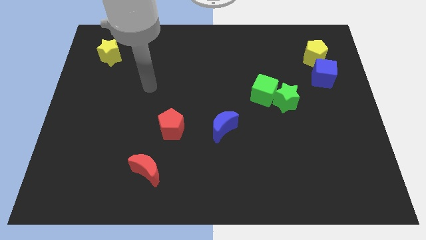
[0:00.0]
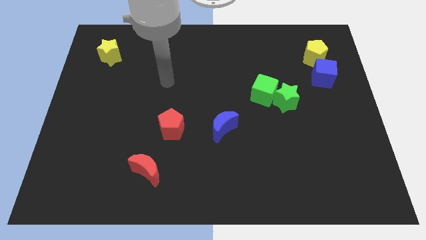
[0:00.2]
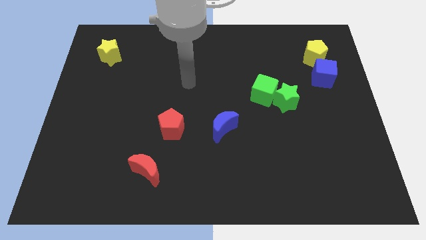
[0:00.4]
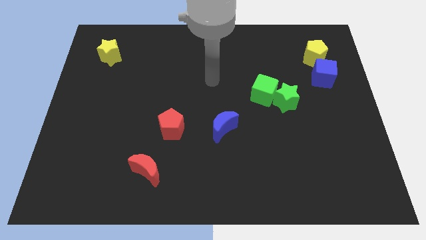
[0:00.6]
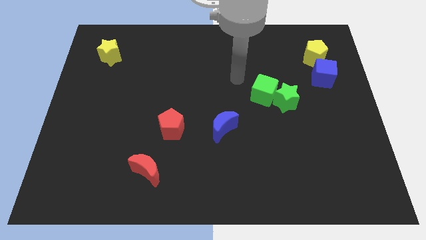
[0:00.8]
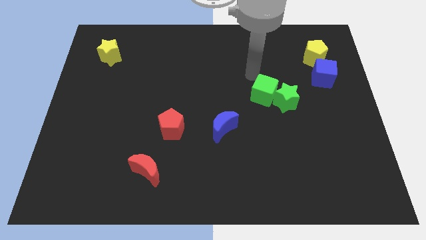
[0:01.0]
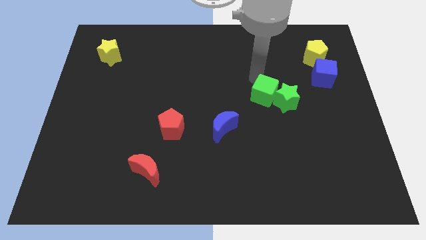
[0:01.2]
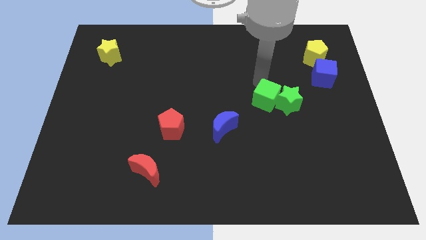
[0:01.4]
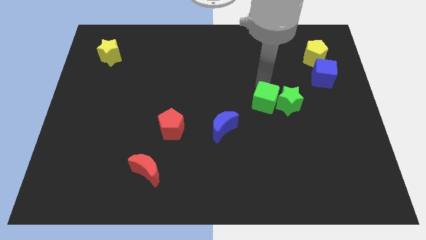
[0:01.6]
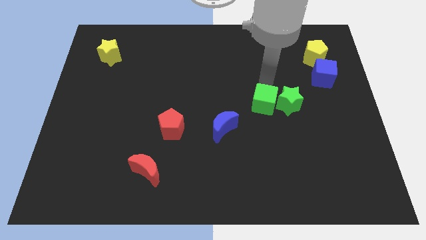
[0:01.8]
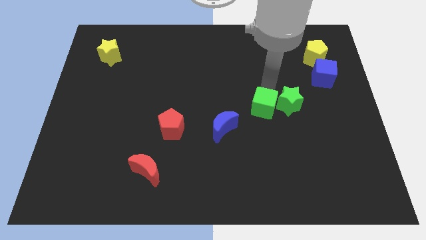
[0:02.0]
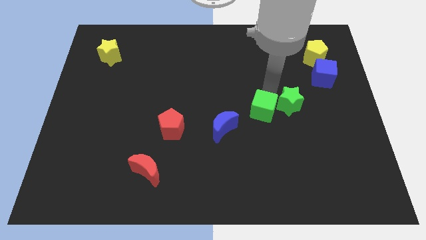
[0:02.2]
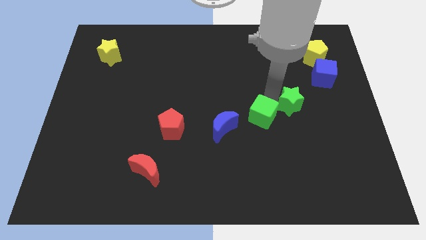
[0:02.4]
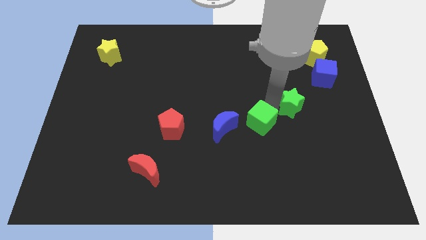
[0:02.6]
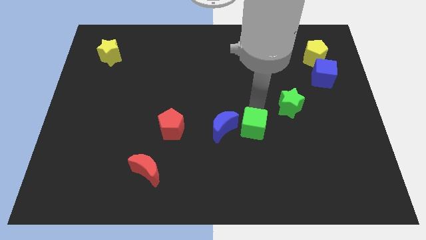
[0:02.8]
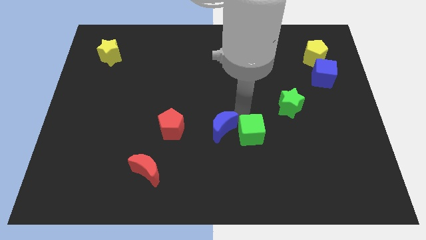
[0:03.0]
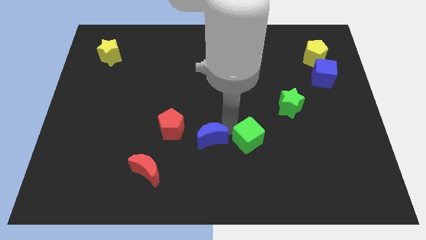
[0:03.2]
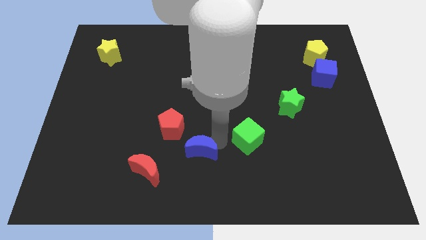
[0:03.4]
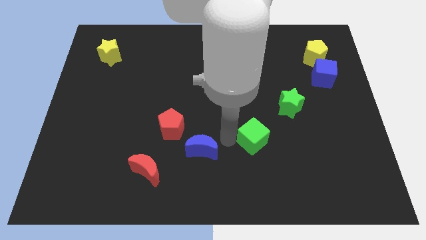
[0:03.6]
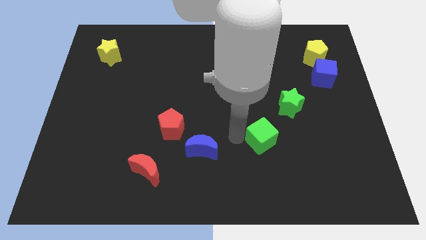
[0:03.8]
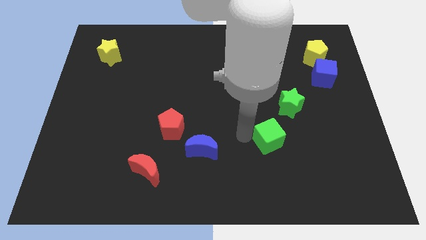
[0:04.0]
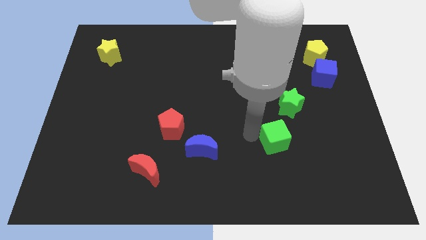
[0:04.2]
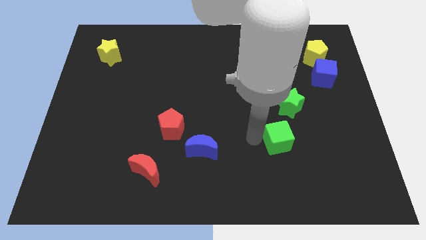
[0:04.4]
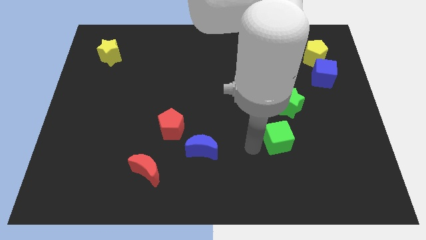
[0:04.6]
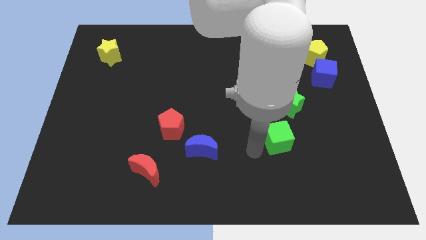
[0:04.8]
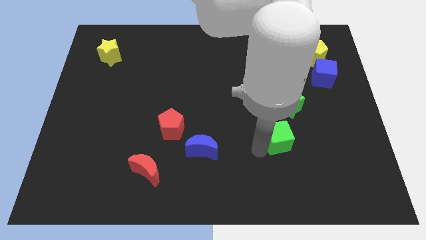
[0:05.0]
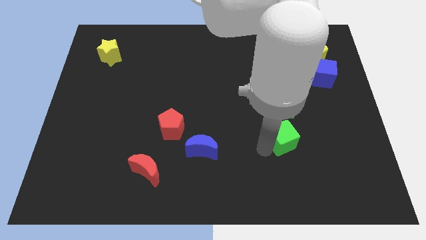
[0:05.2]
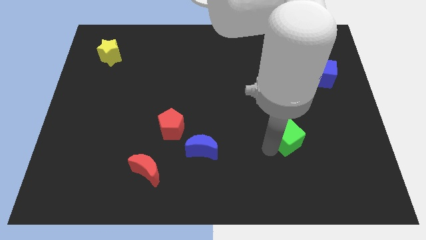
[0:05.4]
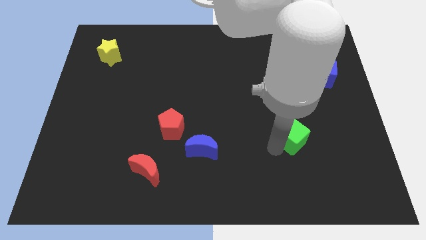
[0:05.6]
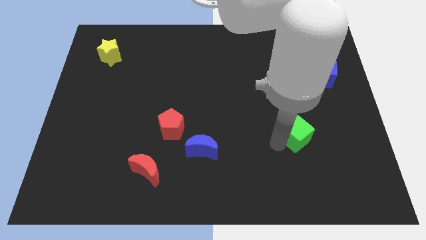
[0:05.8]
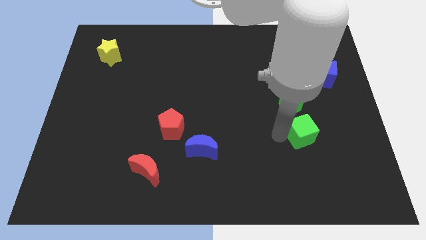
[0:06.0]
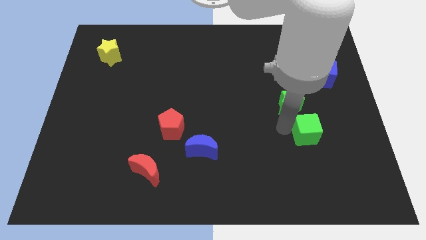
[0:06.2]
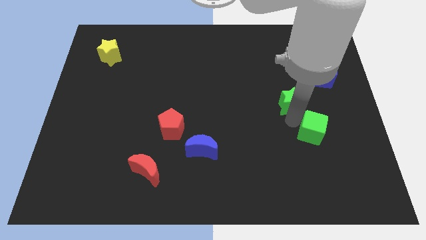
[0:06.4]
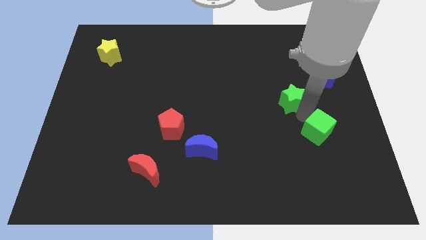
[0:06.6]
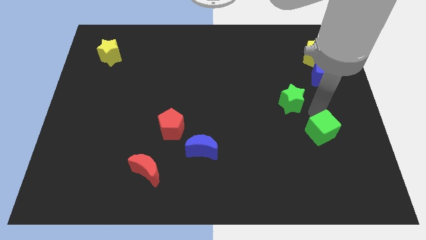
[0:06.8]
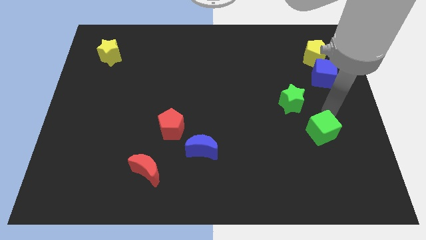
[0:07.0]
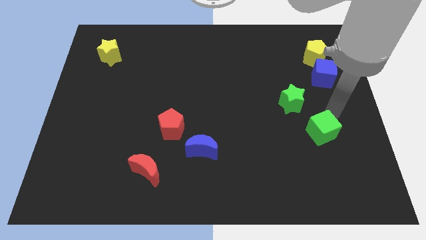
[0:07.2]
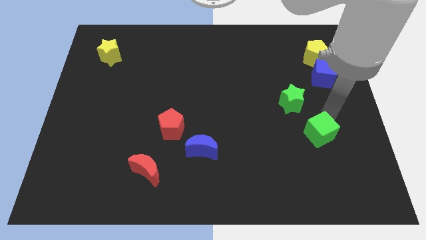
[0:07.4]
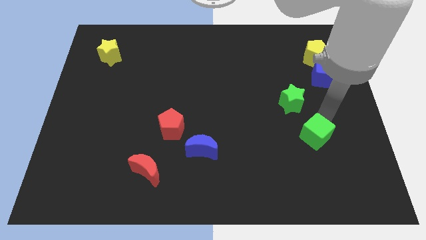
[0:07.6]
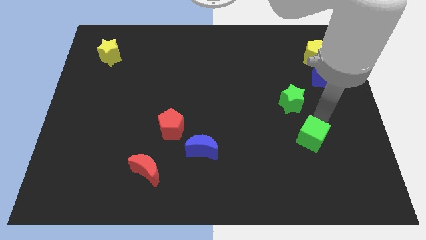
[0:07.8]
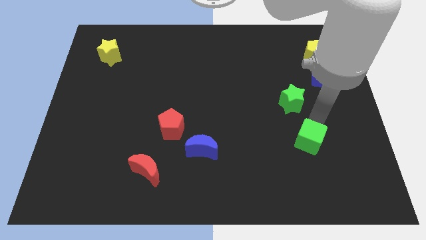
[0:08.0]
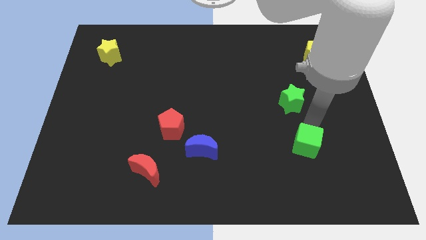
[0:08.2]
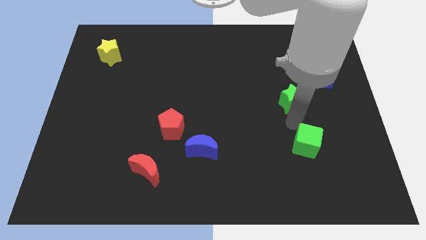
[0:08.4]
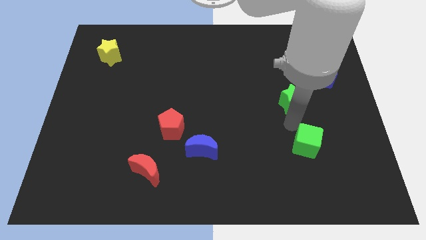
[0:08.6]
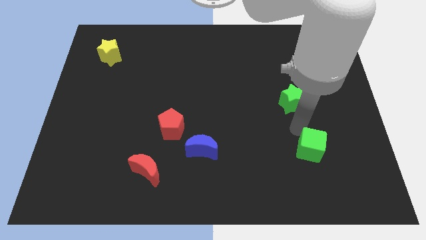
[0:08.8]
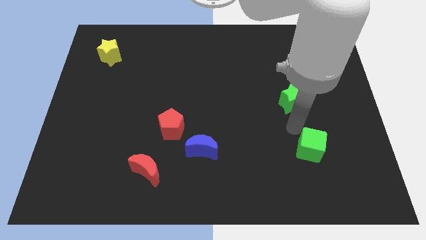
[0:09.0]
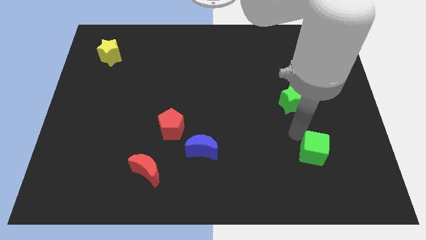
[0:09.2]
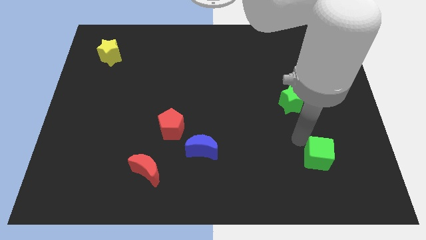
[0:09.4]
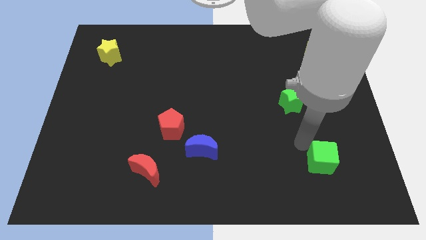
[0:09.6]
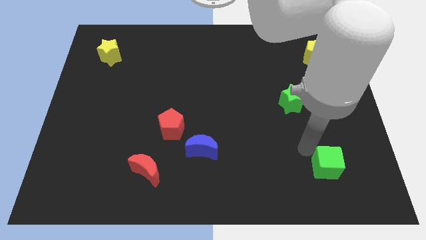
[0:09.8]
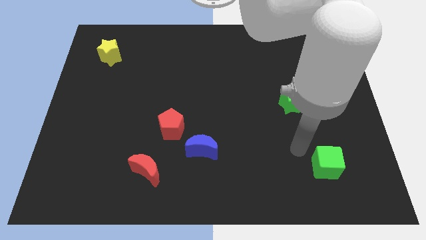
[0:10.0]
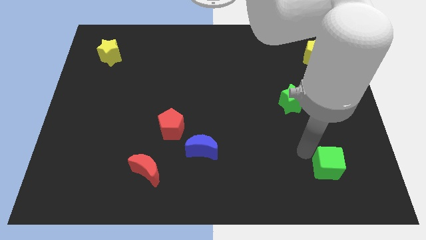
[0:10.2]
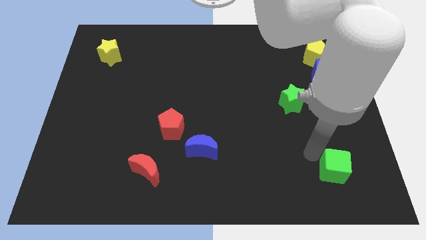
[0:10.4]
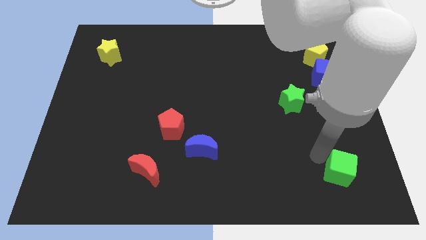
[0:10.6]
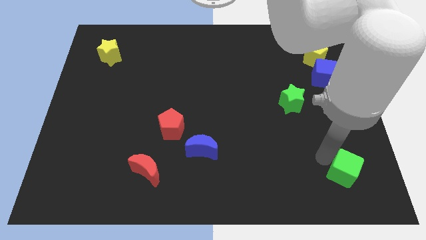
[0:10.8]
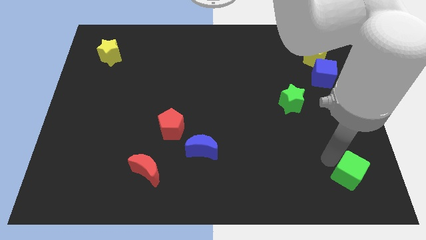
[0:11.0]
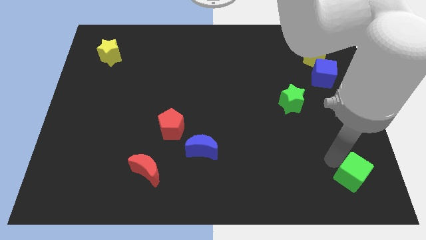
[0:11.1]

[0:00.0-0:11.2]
slide the green cube to the bottom right corner
